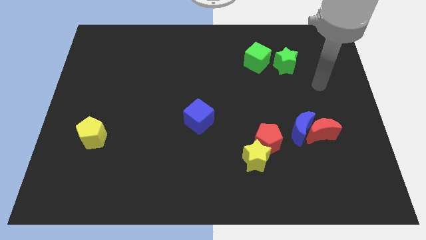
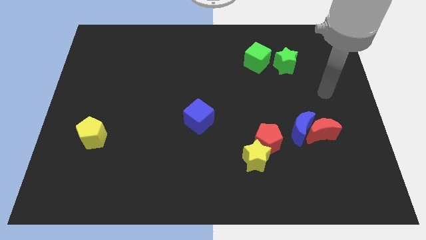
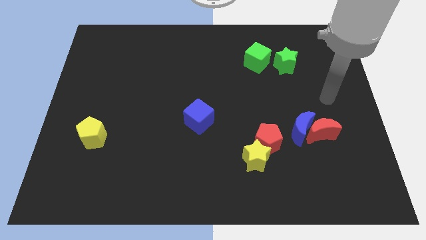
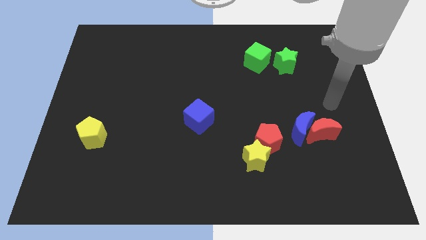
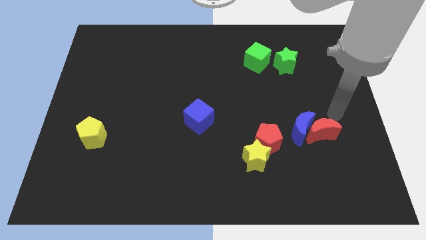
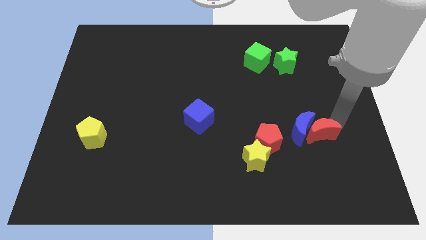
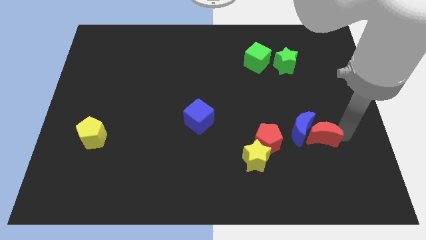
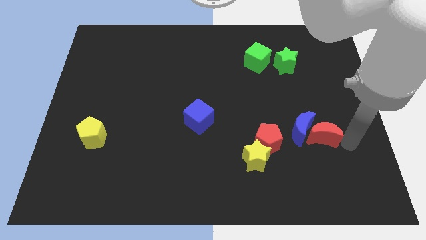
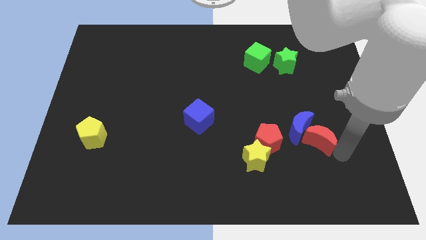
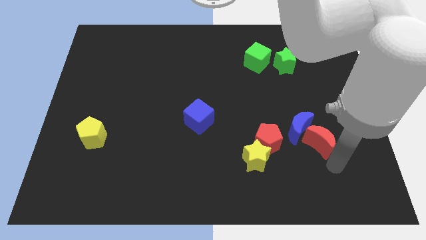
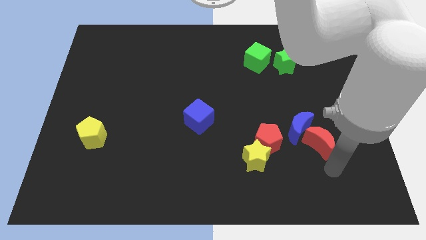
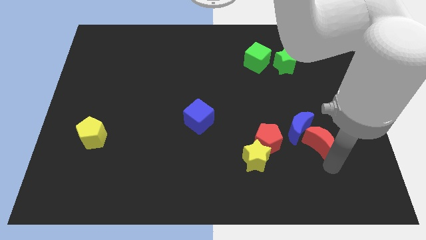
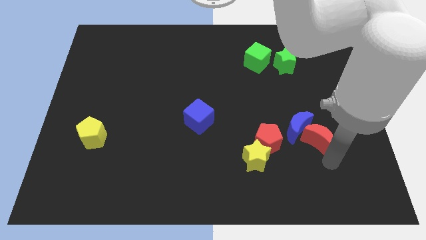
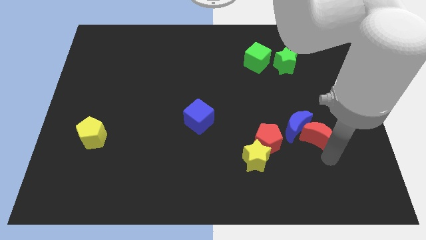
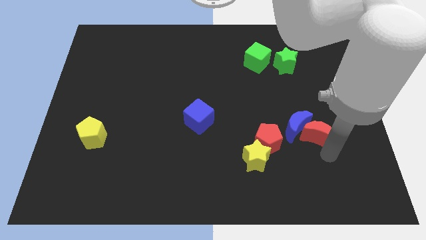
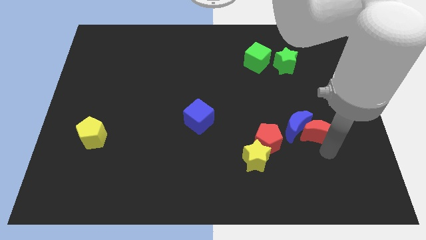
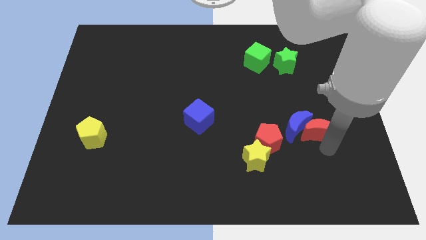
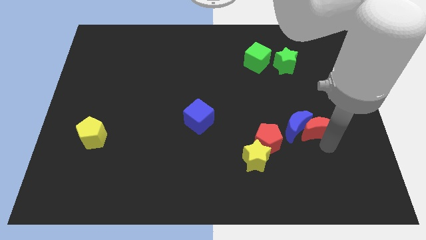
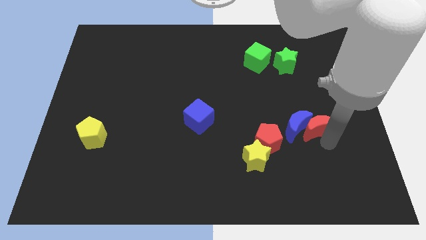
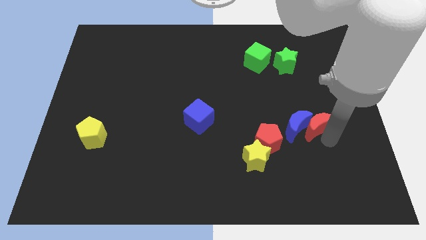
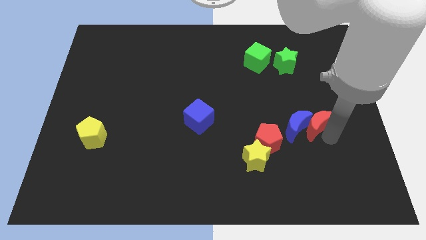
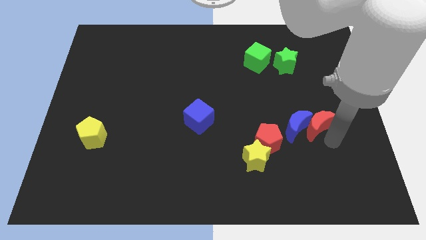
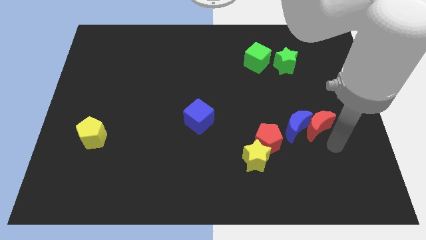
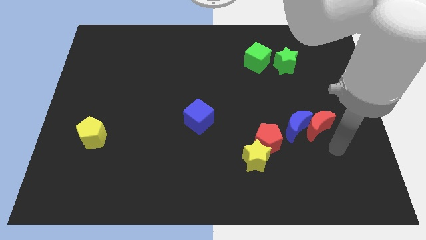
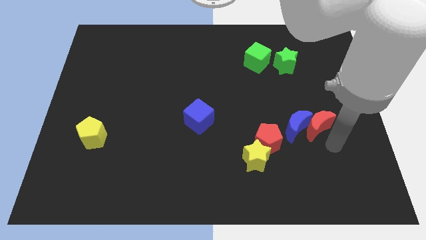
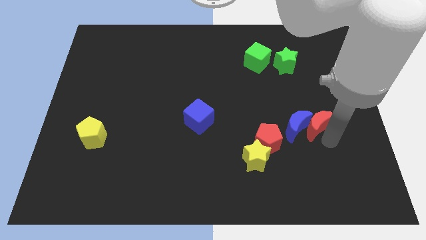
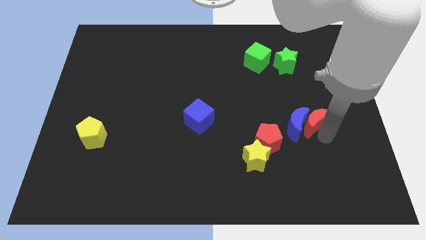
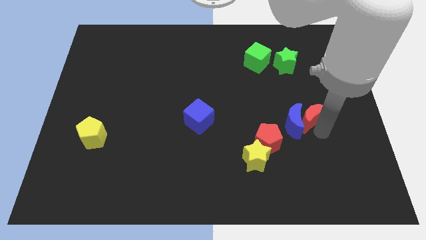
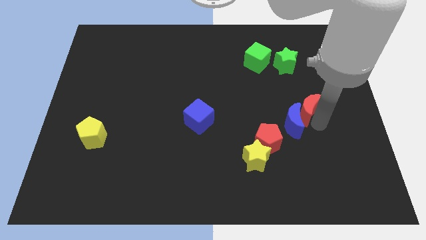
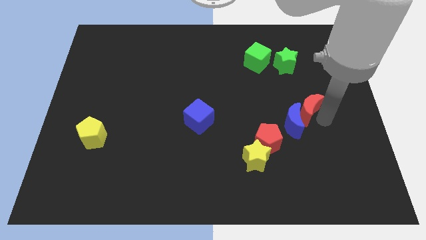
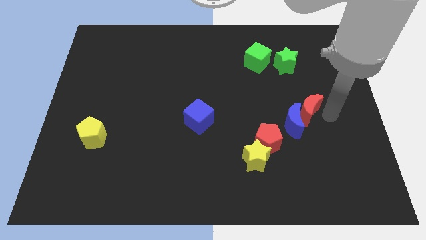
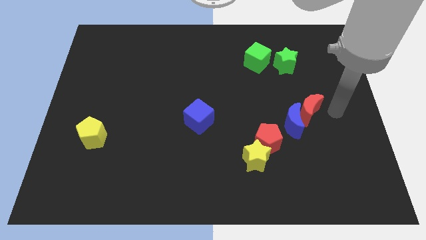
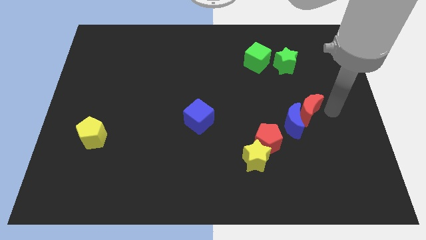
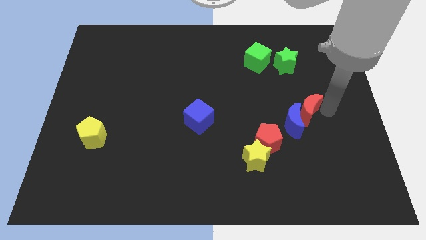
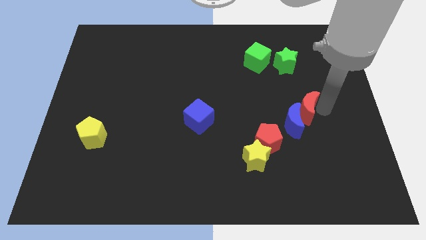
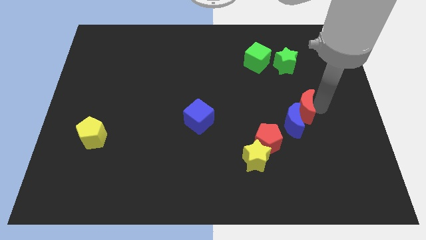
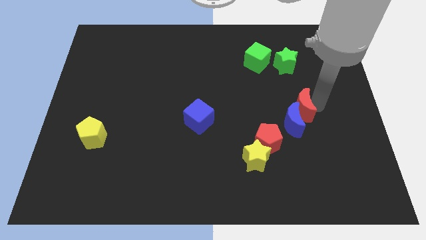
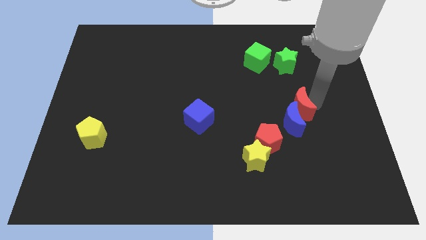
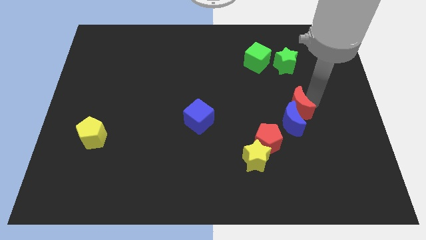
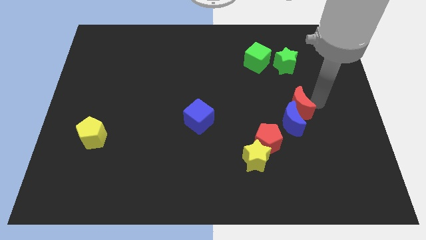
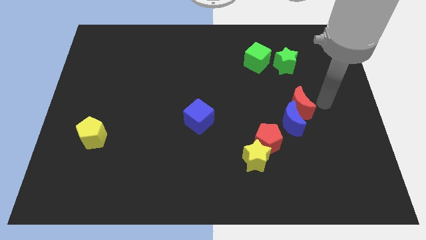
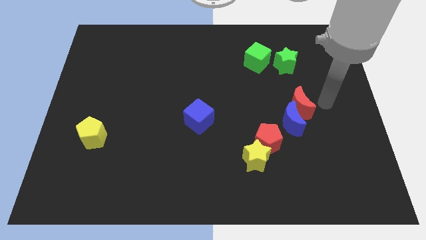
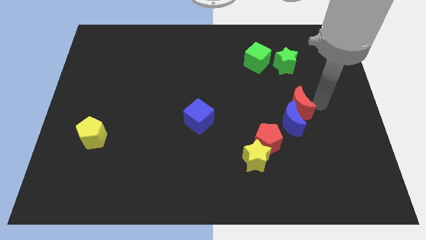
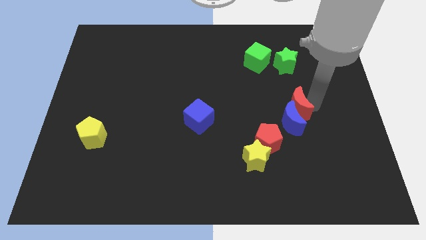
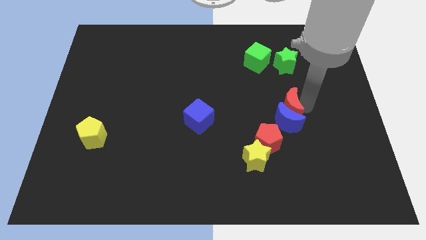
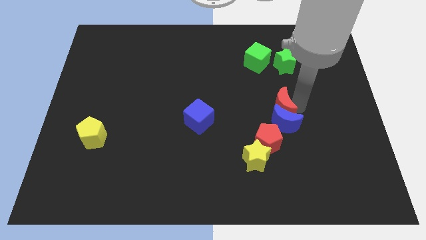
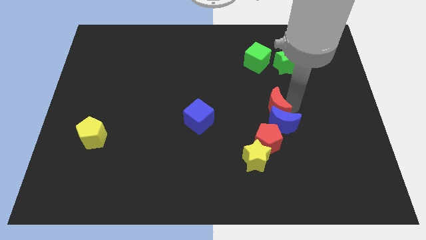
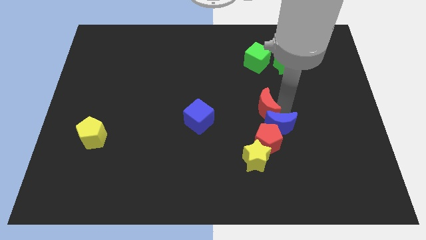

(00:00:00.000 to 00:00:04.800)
slide the red moon to the center

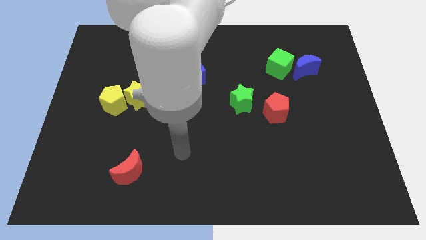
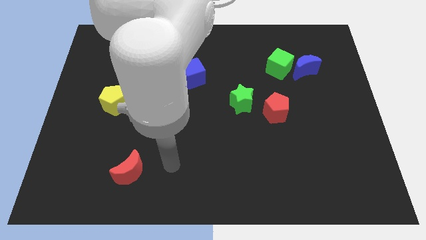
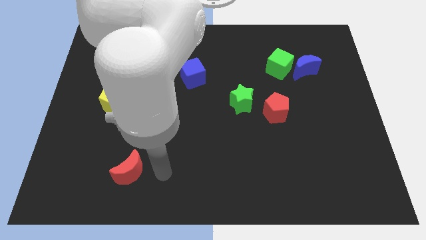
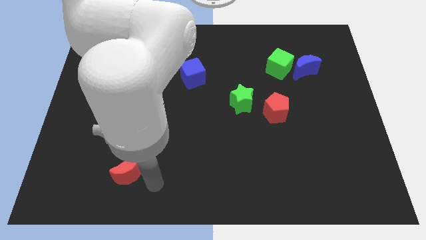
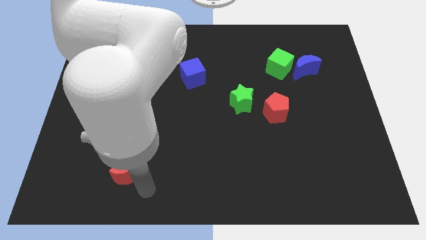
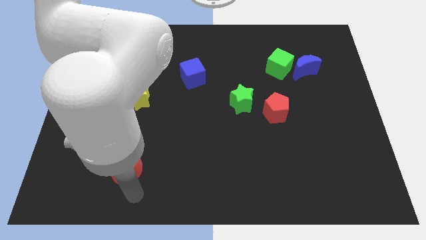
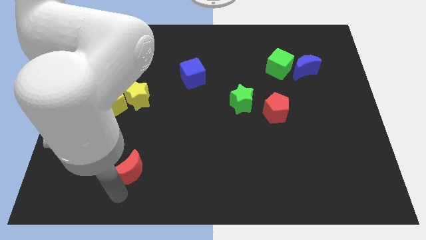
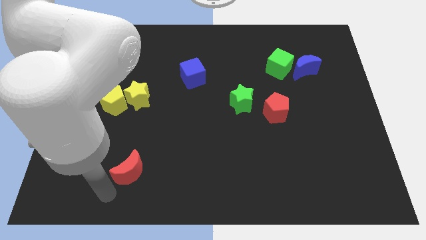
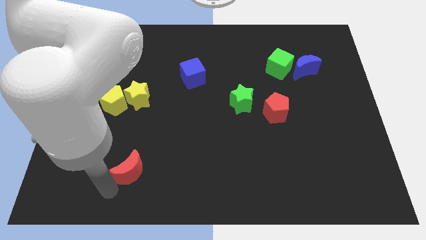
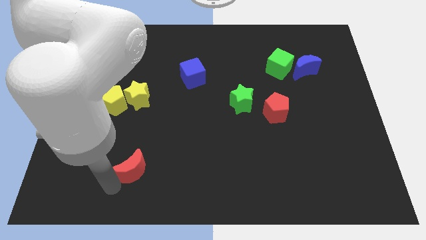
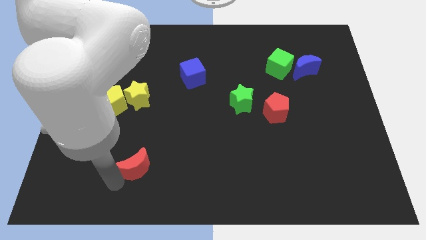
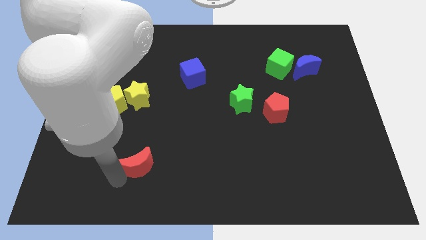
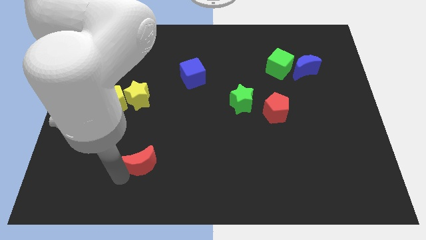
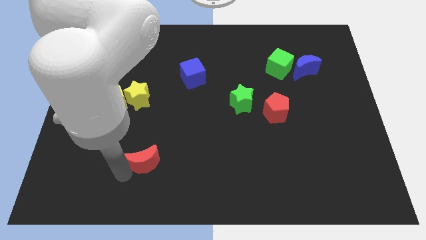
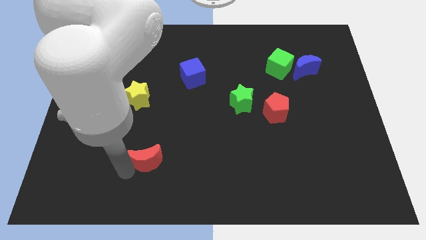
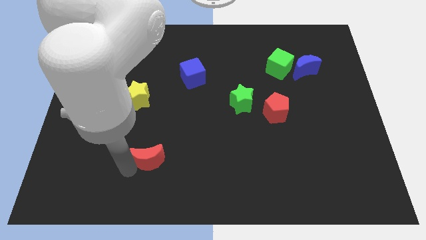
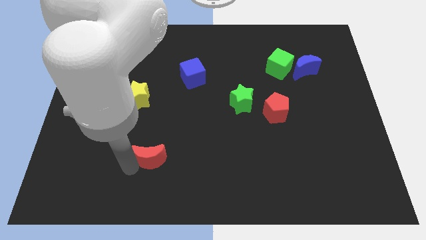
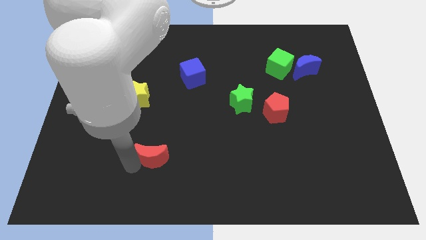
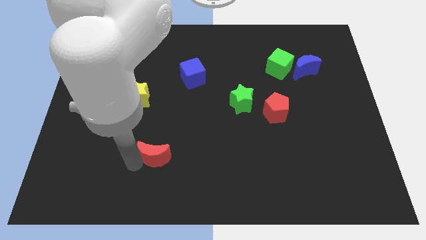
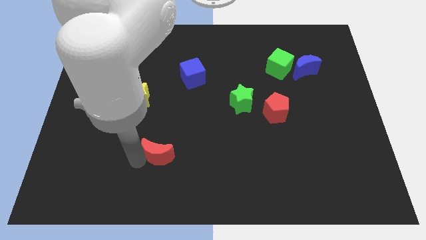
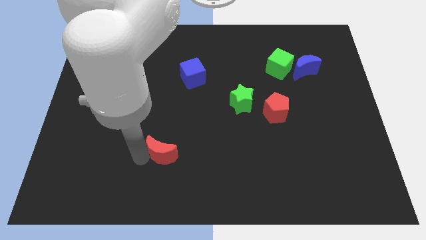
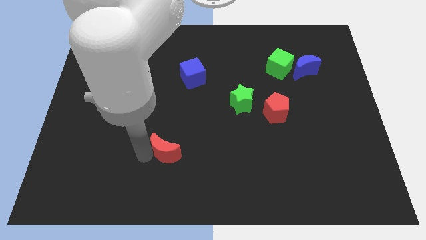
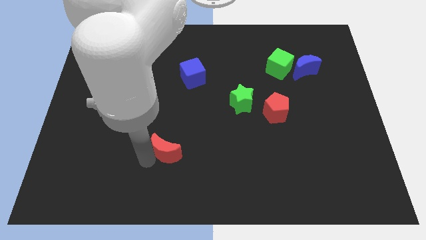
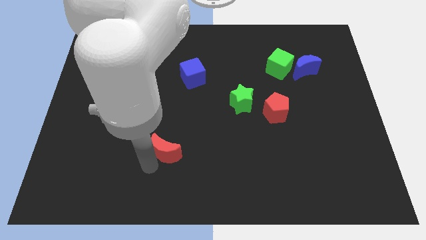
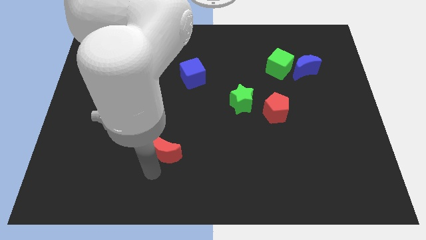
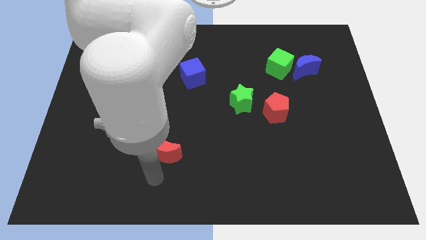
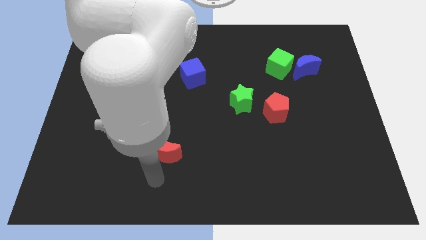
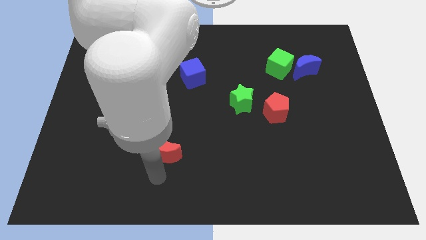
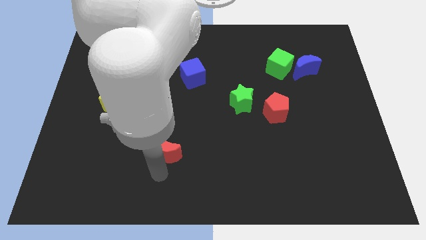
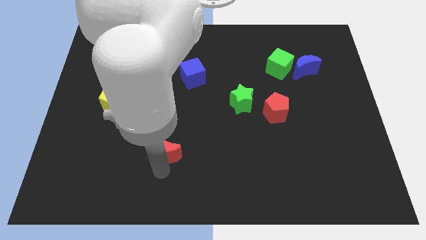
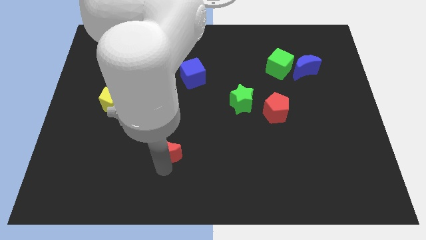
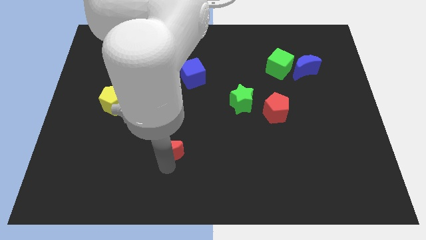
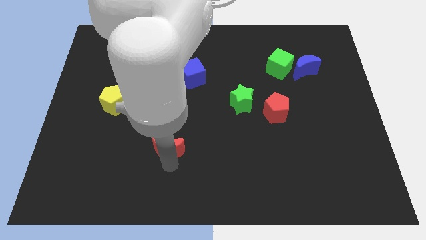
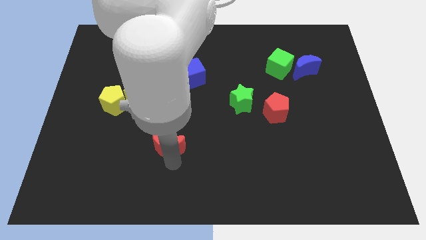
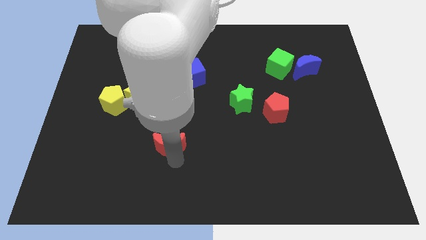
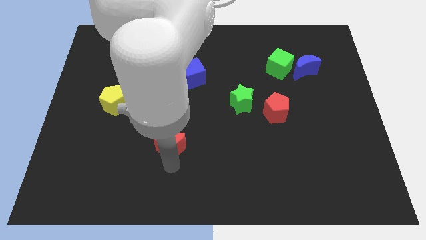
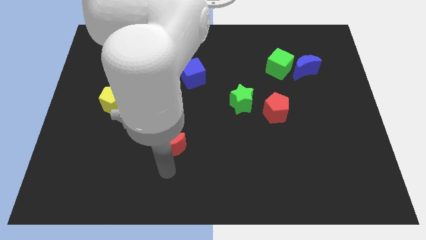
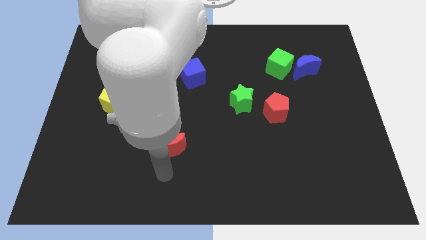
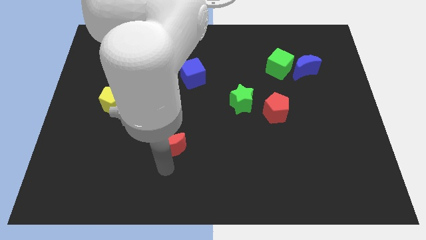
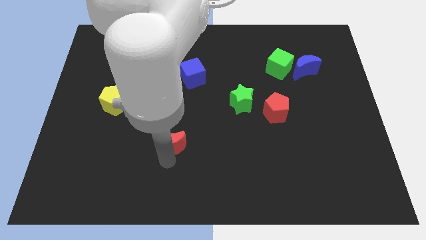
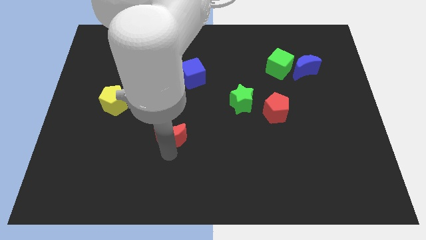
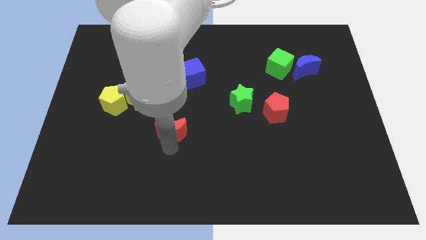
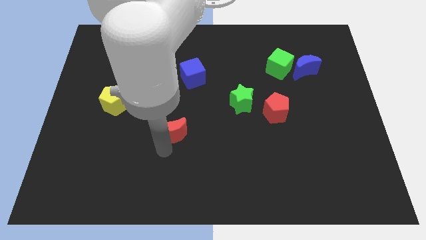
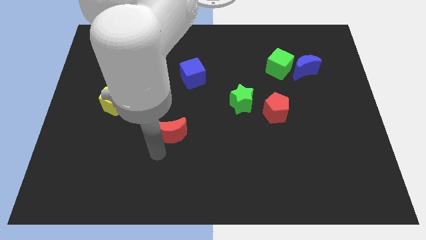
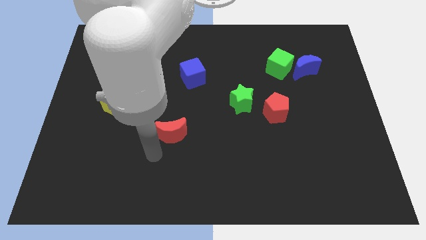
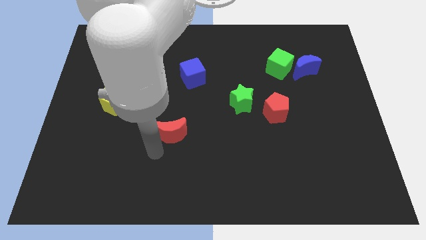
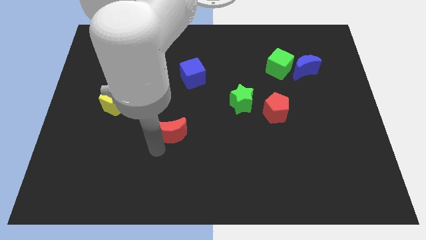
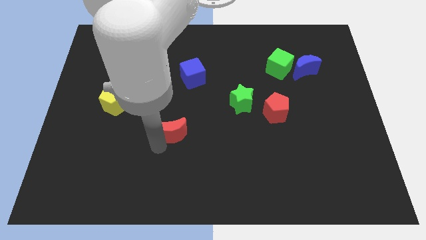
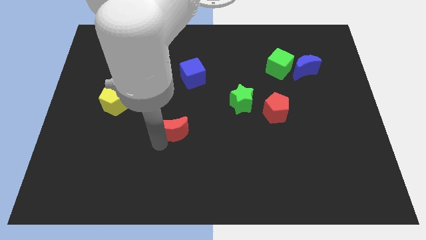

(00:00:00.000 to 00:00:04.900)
put the red moon to the center of the board
